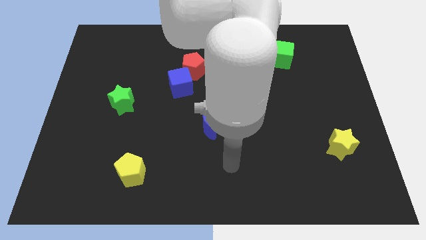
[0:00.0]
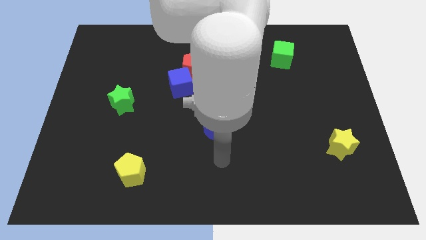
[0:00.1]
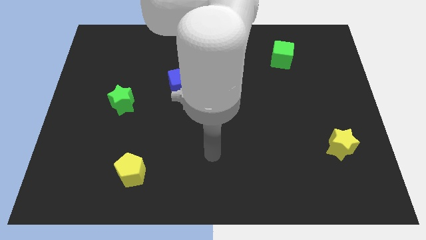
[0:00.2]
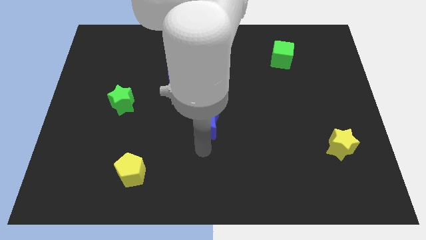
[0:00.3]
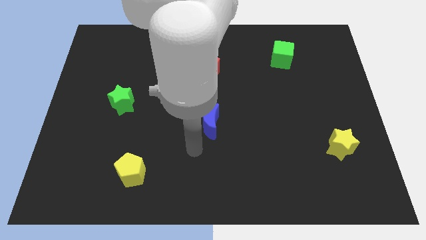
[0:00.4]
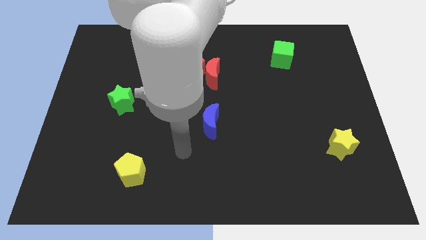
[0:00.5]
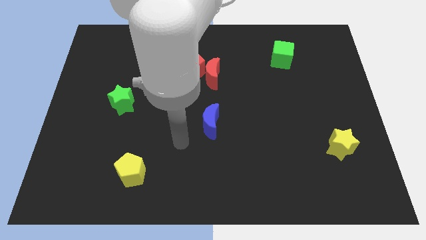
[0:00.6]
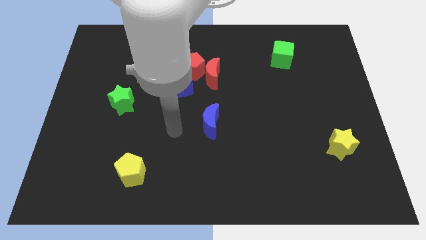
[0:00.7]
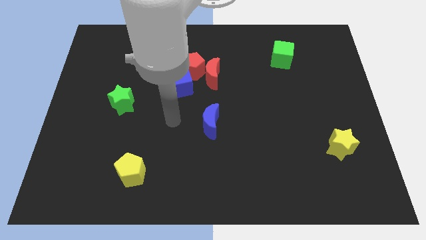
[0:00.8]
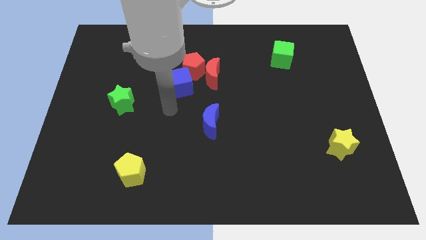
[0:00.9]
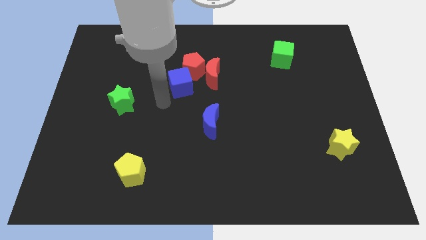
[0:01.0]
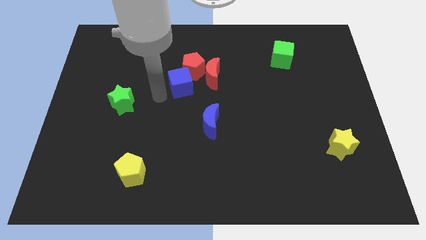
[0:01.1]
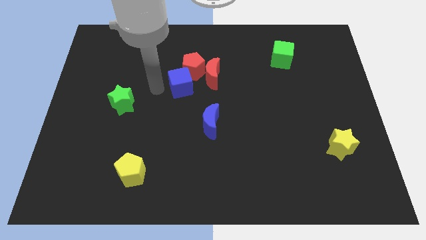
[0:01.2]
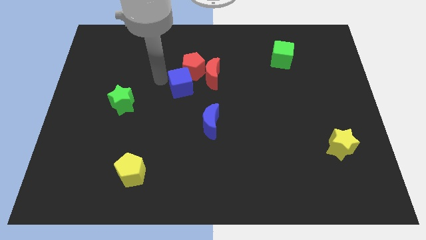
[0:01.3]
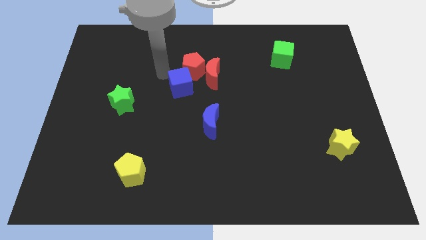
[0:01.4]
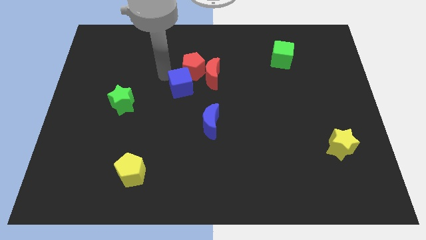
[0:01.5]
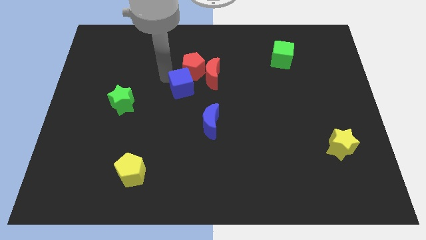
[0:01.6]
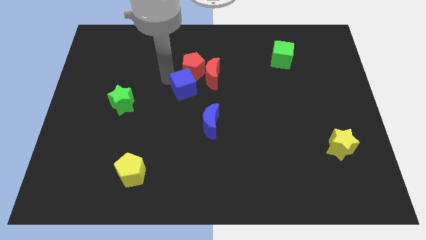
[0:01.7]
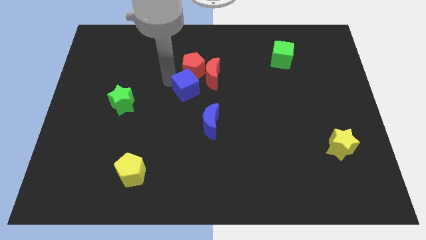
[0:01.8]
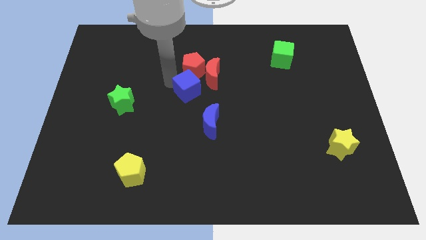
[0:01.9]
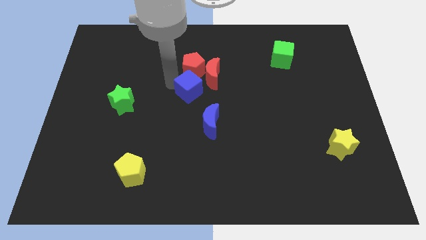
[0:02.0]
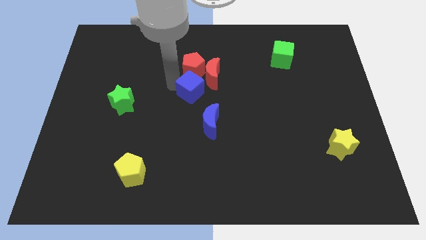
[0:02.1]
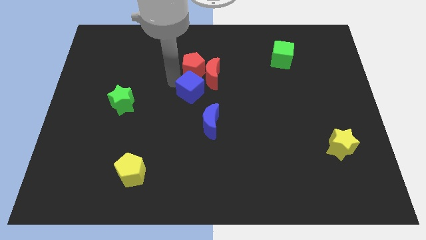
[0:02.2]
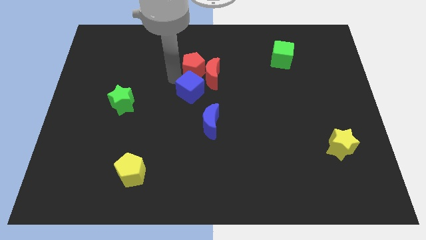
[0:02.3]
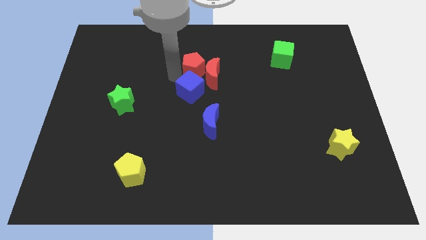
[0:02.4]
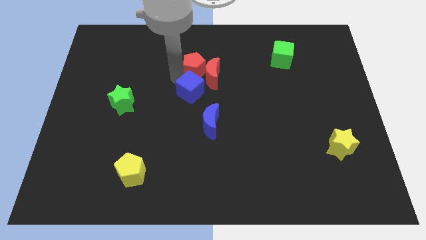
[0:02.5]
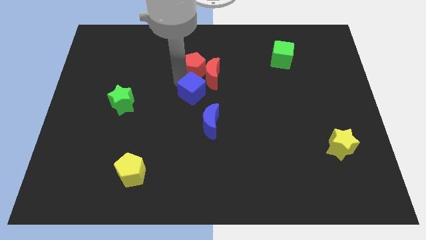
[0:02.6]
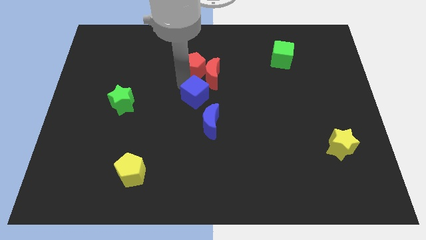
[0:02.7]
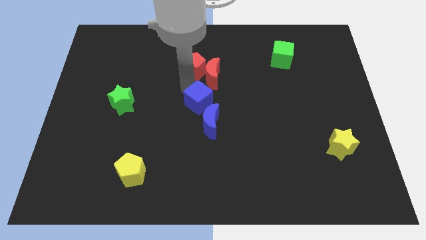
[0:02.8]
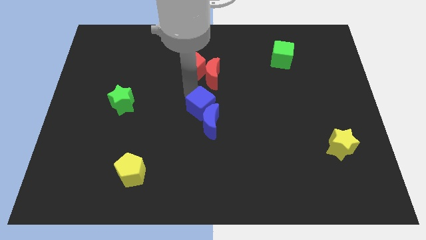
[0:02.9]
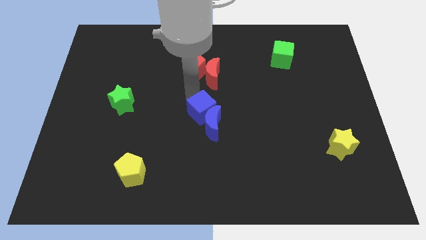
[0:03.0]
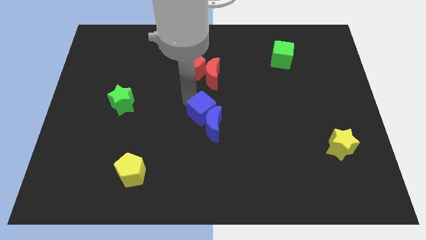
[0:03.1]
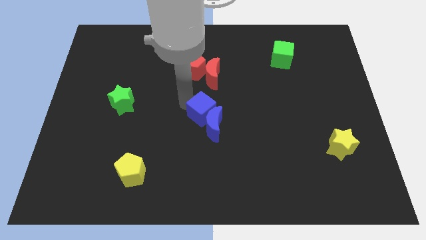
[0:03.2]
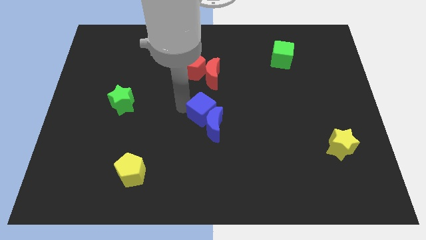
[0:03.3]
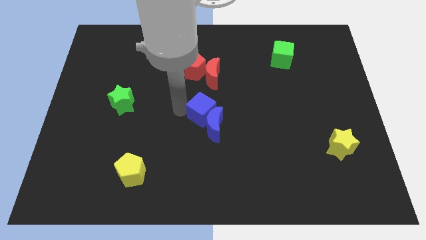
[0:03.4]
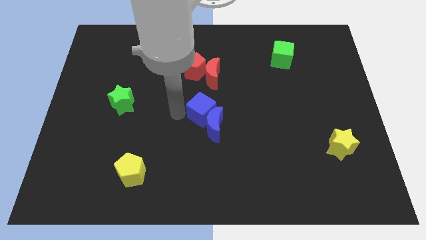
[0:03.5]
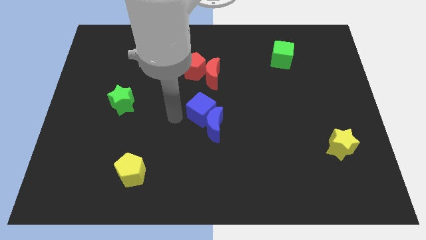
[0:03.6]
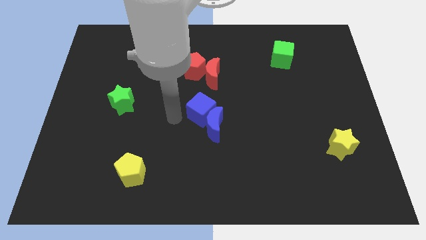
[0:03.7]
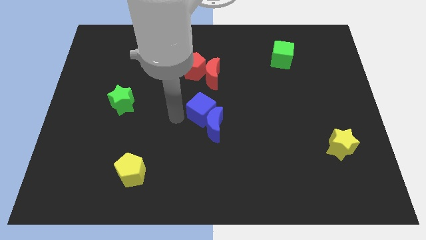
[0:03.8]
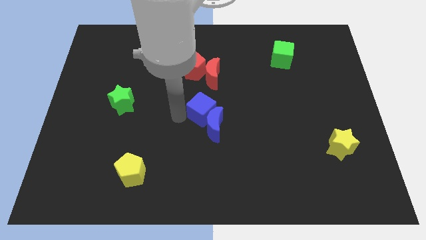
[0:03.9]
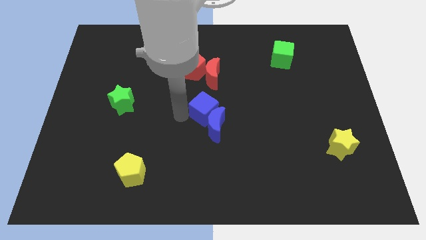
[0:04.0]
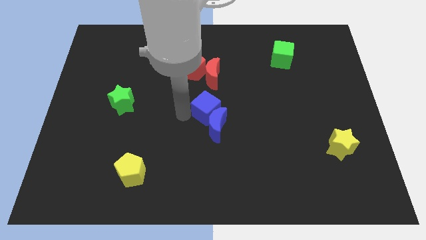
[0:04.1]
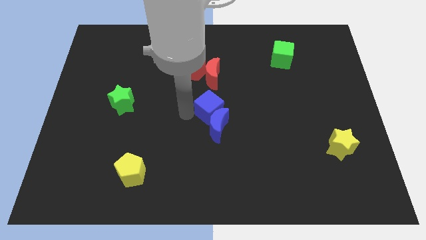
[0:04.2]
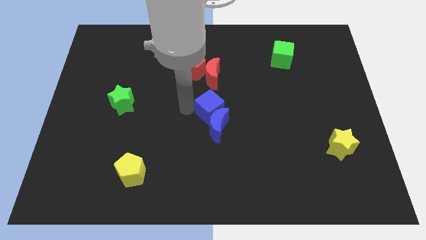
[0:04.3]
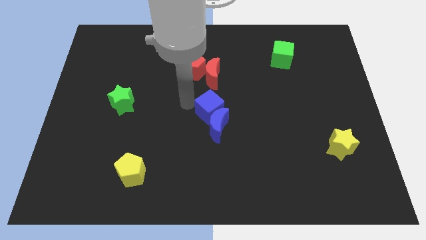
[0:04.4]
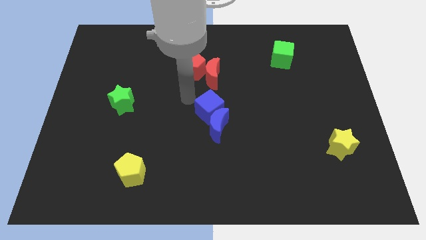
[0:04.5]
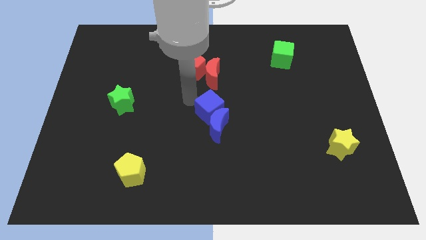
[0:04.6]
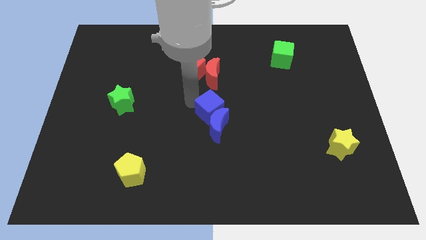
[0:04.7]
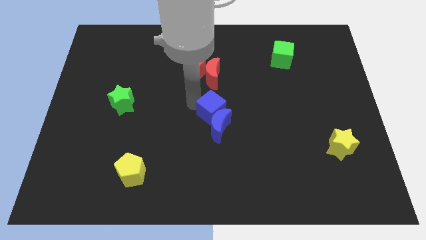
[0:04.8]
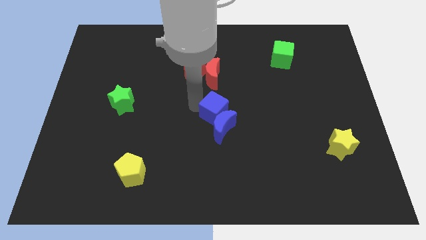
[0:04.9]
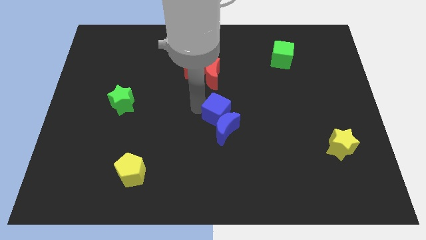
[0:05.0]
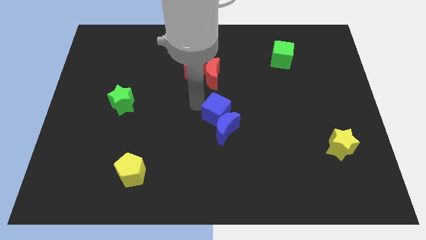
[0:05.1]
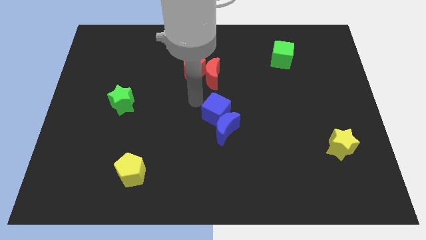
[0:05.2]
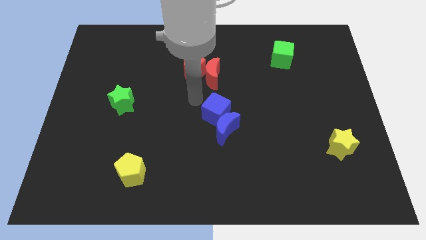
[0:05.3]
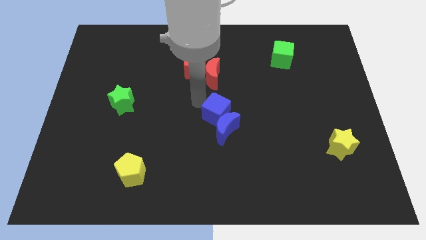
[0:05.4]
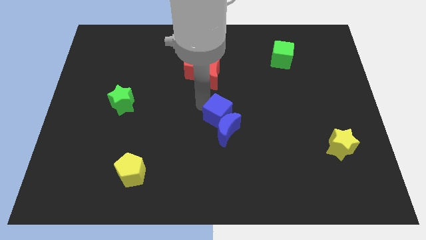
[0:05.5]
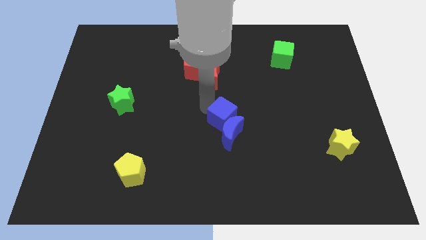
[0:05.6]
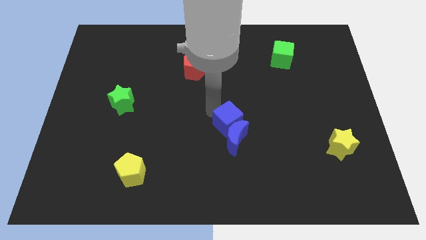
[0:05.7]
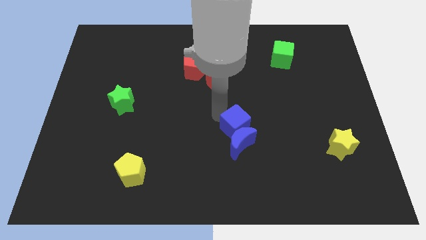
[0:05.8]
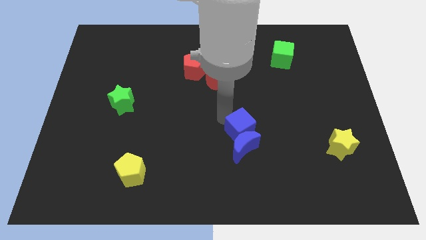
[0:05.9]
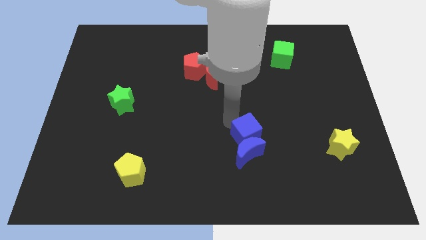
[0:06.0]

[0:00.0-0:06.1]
move the blue cube diagonally downwards and to the right

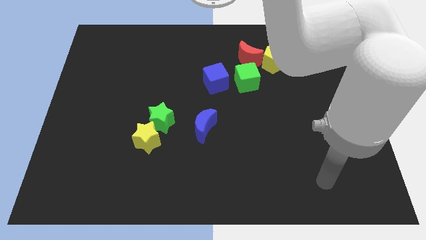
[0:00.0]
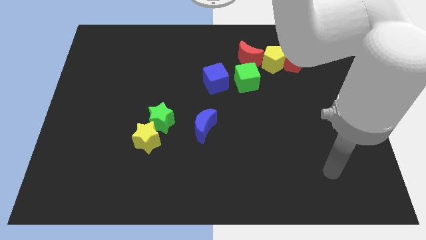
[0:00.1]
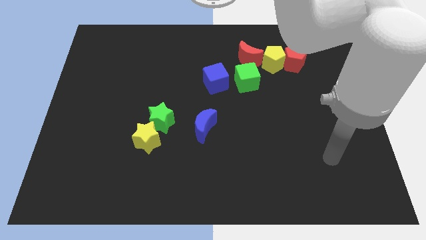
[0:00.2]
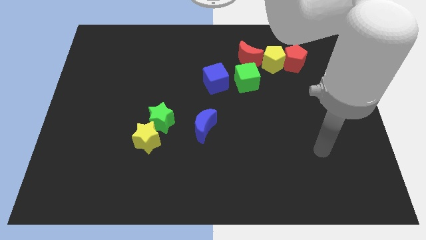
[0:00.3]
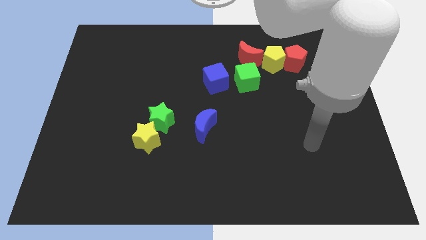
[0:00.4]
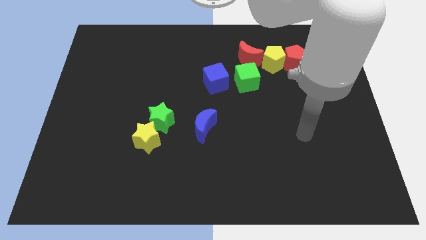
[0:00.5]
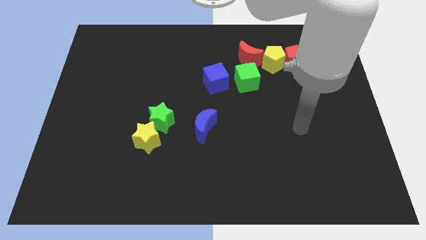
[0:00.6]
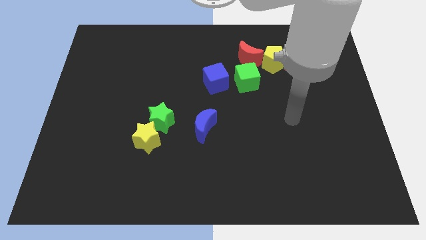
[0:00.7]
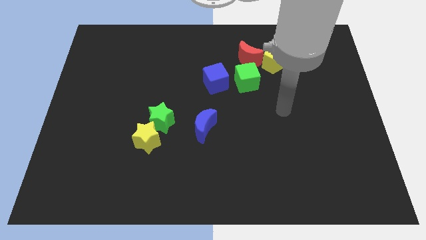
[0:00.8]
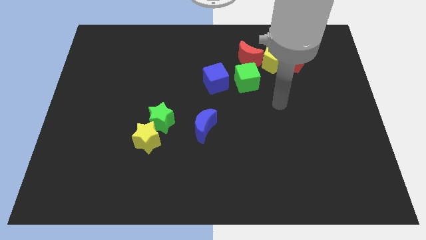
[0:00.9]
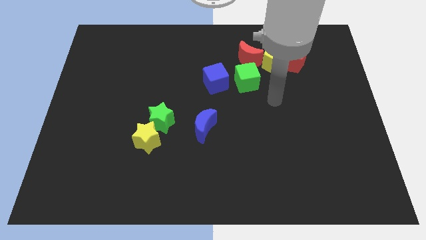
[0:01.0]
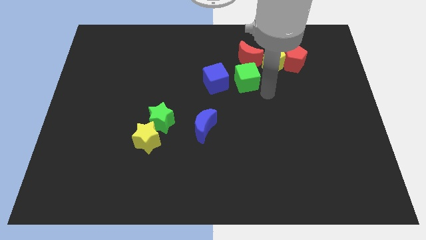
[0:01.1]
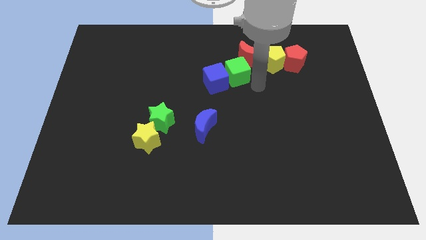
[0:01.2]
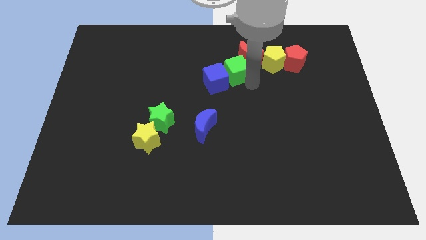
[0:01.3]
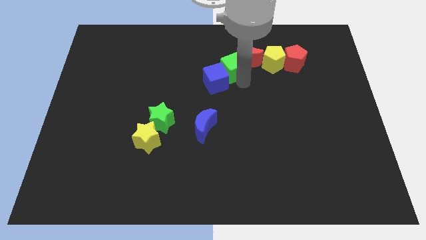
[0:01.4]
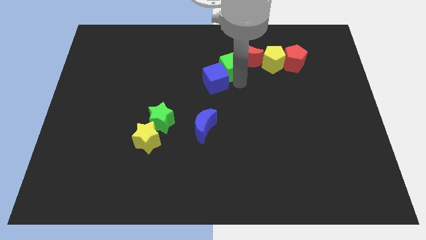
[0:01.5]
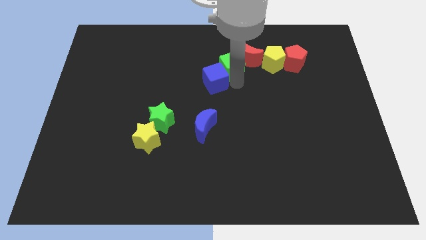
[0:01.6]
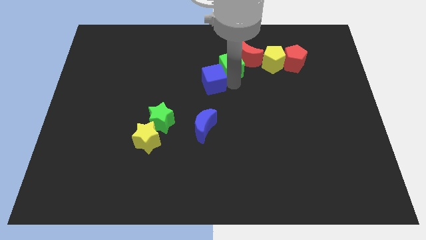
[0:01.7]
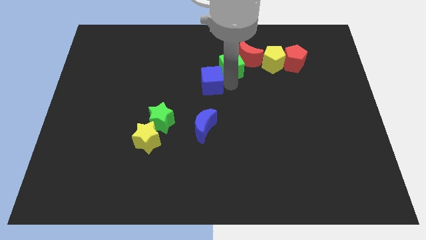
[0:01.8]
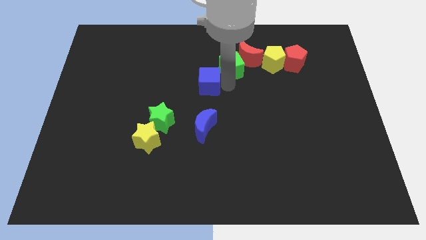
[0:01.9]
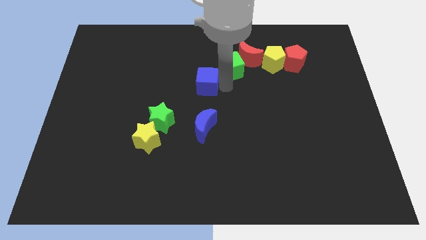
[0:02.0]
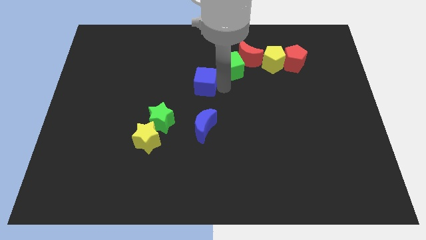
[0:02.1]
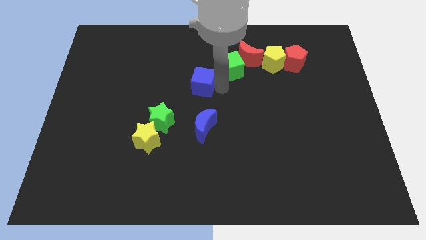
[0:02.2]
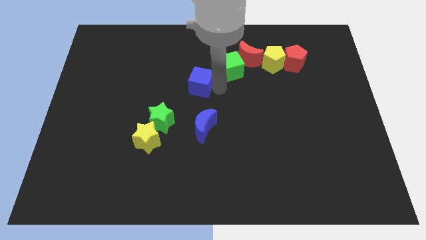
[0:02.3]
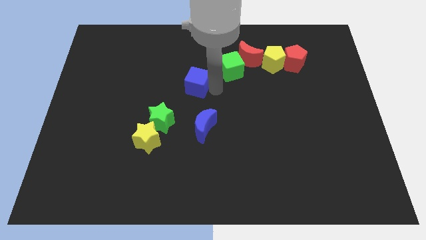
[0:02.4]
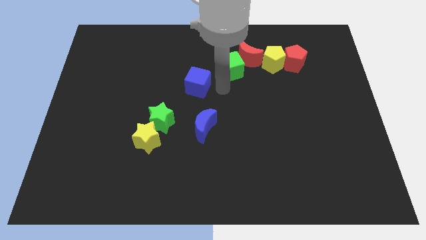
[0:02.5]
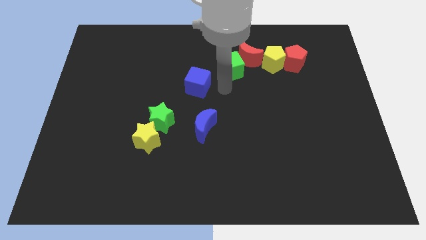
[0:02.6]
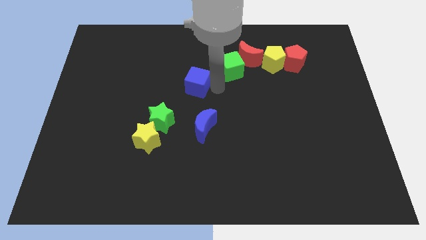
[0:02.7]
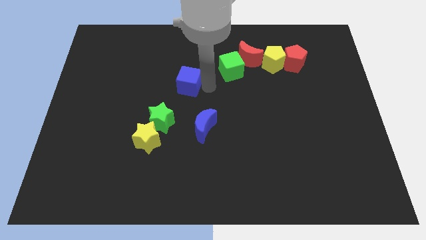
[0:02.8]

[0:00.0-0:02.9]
push the blue cube a bit to the left
